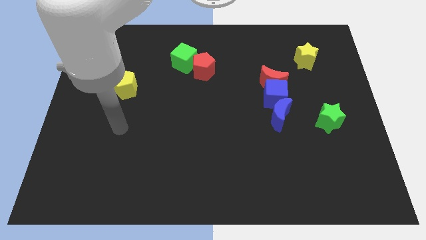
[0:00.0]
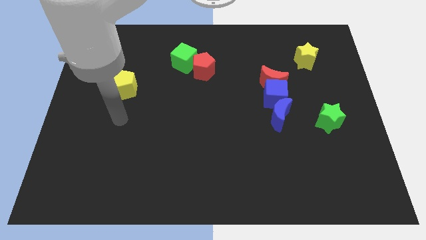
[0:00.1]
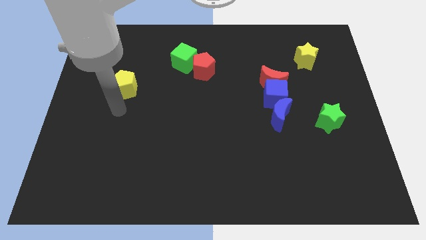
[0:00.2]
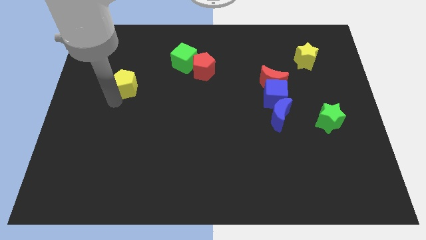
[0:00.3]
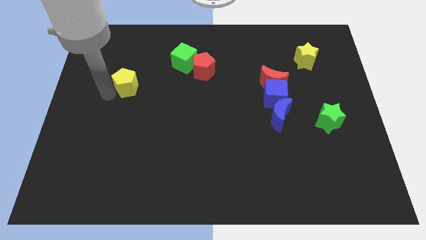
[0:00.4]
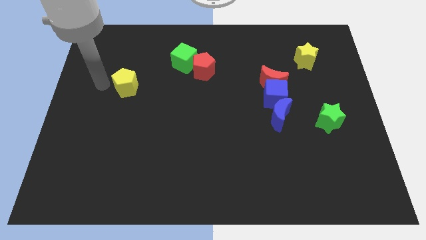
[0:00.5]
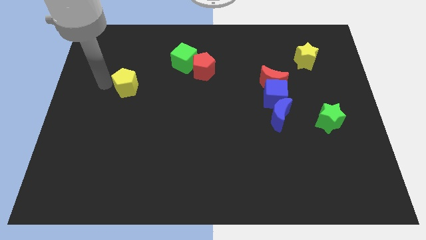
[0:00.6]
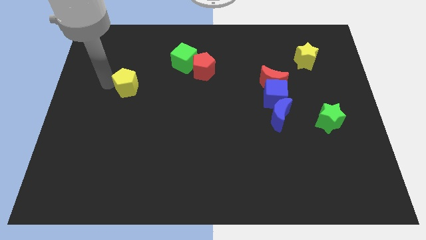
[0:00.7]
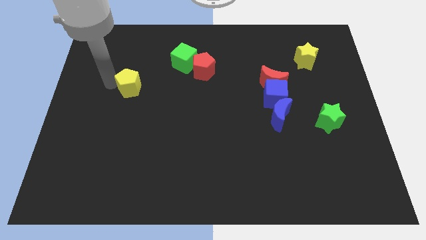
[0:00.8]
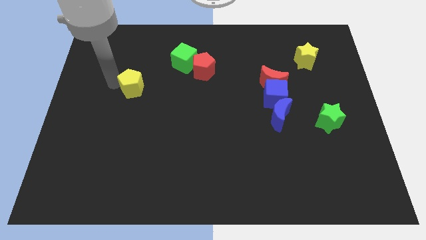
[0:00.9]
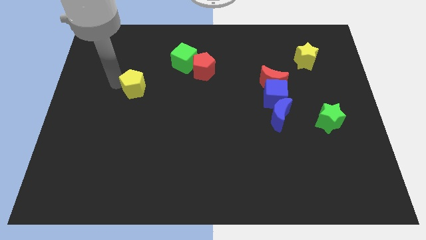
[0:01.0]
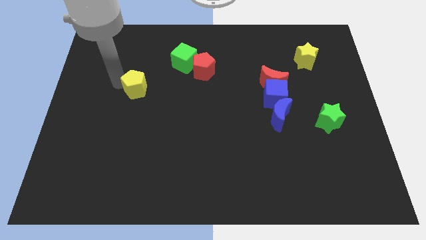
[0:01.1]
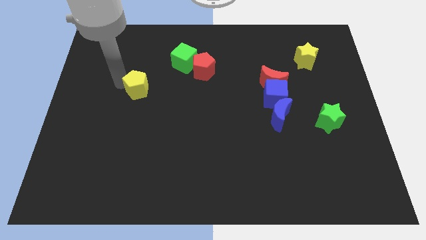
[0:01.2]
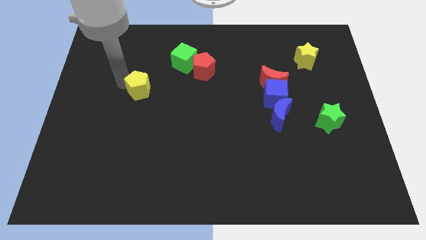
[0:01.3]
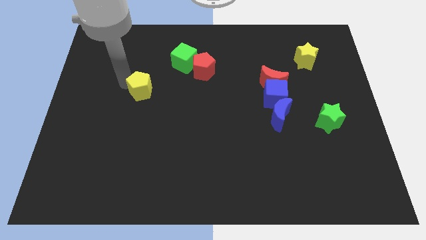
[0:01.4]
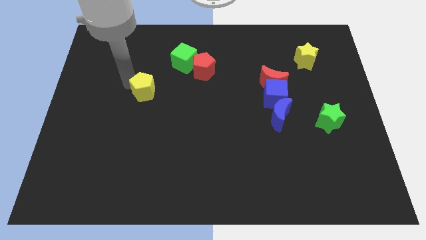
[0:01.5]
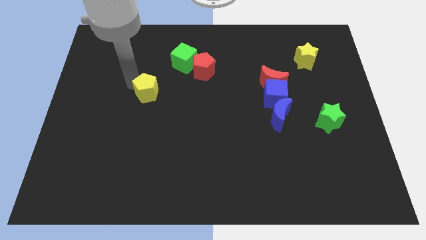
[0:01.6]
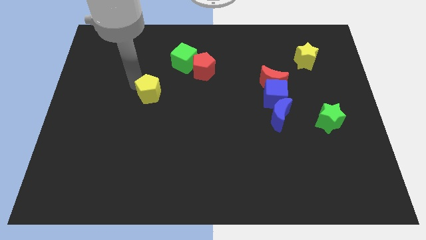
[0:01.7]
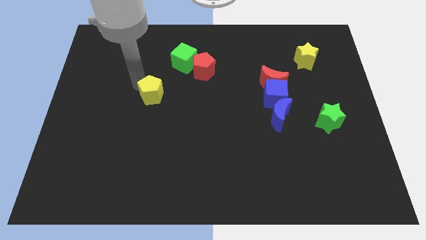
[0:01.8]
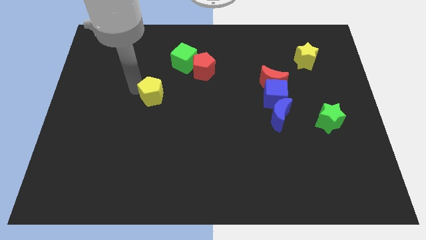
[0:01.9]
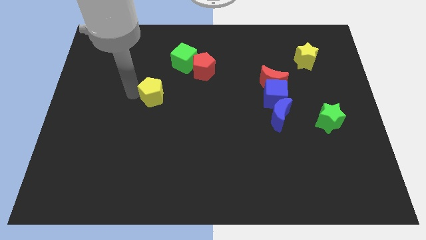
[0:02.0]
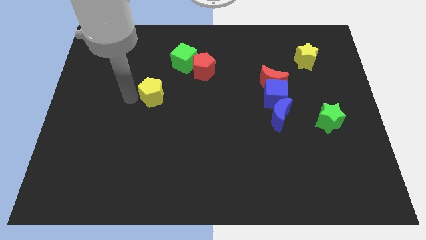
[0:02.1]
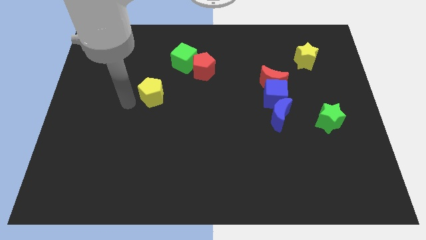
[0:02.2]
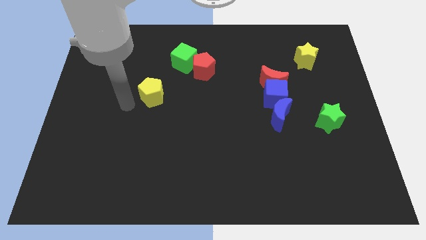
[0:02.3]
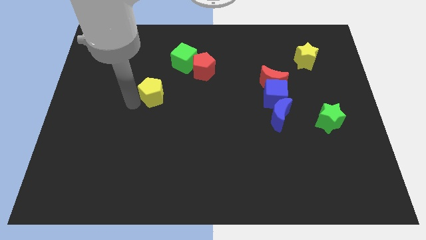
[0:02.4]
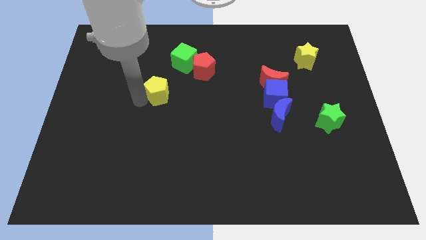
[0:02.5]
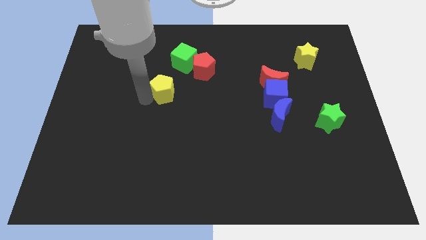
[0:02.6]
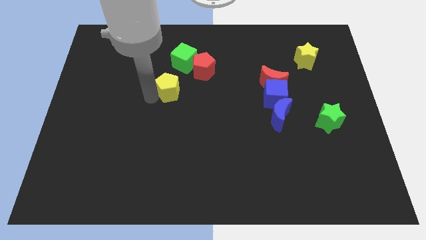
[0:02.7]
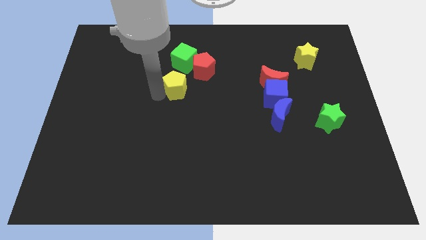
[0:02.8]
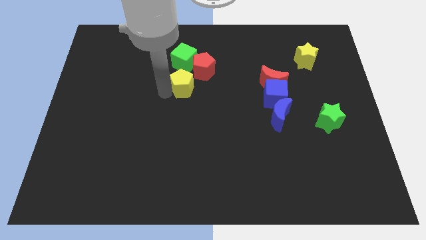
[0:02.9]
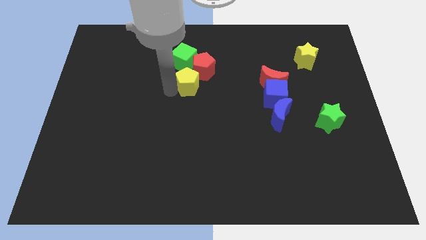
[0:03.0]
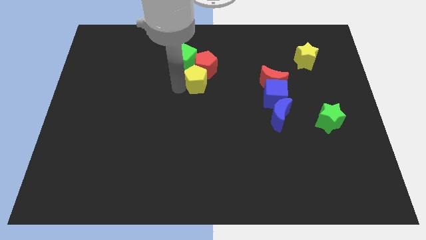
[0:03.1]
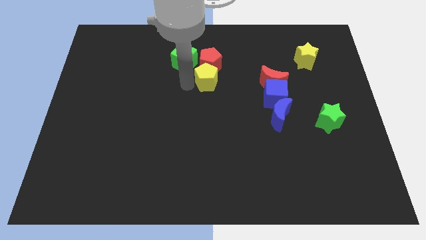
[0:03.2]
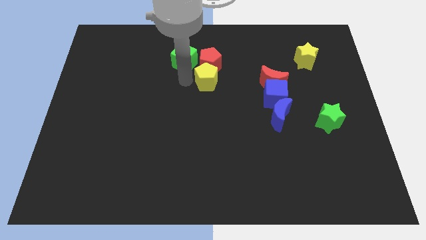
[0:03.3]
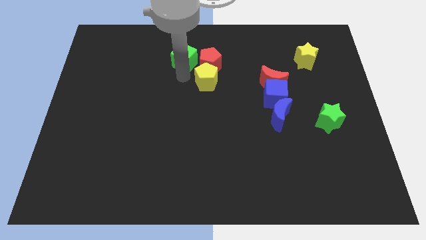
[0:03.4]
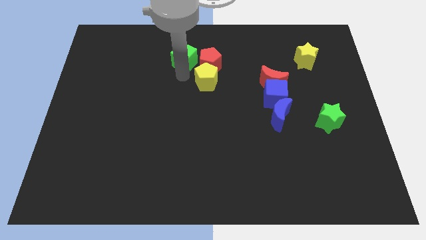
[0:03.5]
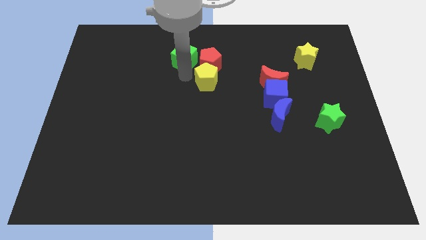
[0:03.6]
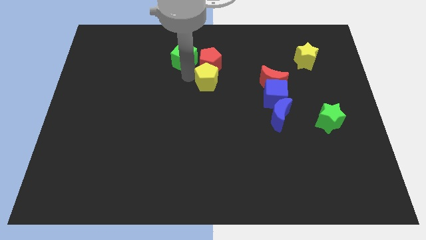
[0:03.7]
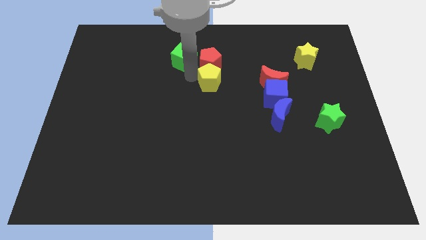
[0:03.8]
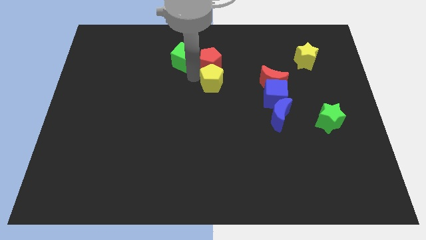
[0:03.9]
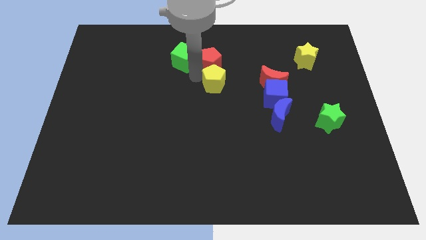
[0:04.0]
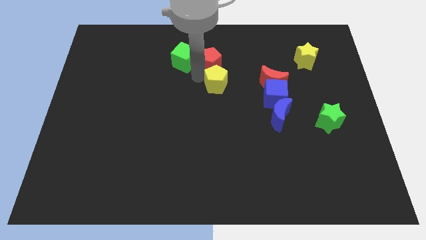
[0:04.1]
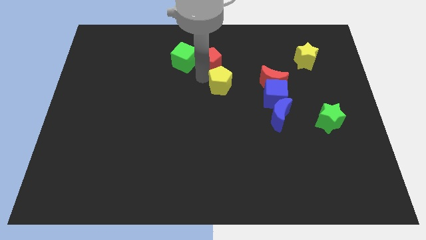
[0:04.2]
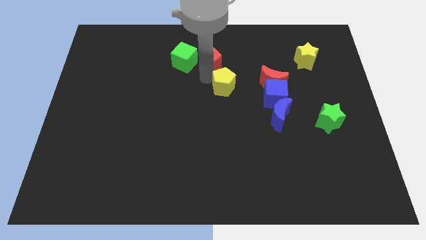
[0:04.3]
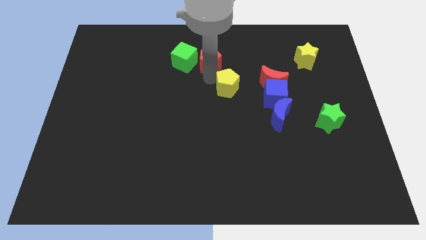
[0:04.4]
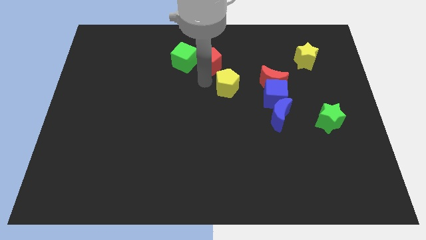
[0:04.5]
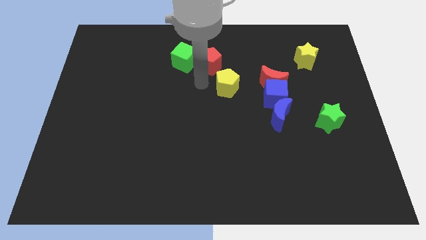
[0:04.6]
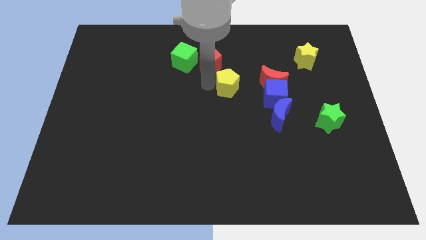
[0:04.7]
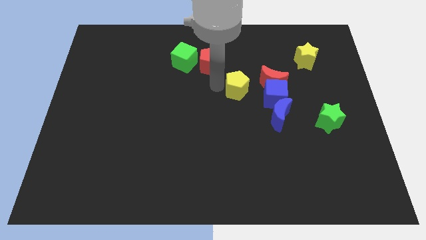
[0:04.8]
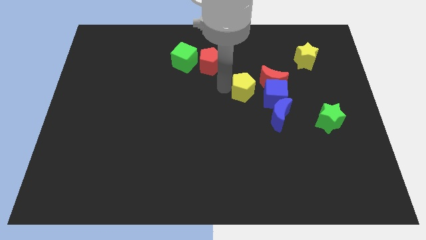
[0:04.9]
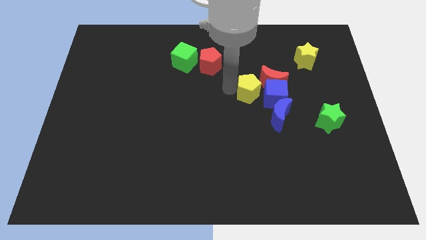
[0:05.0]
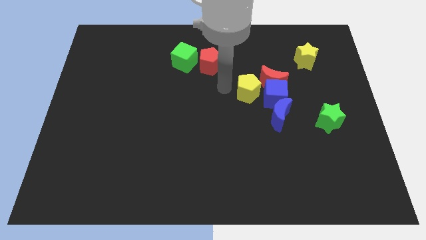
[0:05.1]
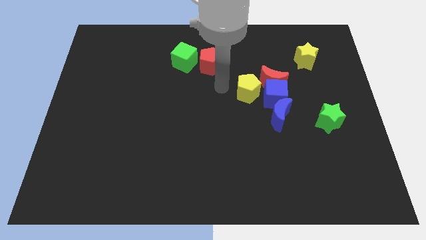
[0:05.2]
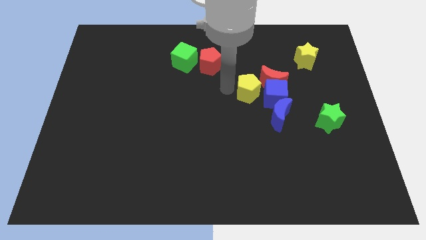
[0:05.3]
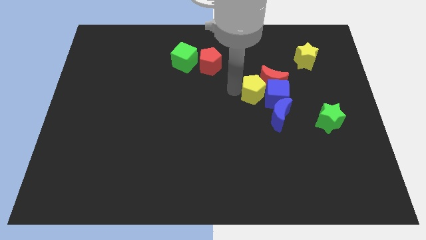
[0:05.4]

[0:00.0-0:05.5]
put the yellow pentagon towards the blue cube

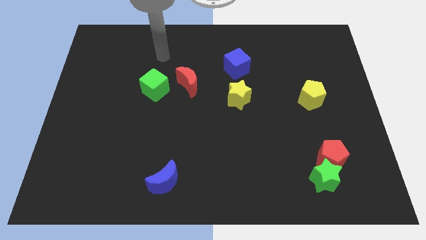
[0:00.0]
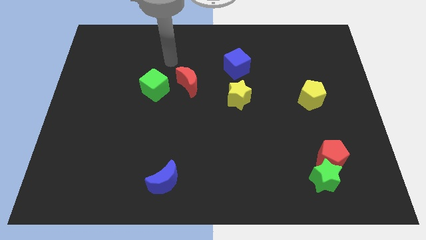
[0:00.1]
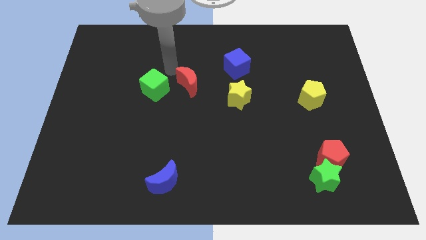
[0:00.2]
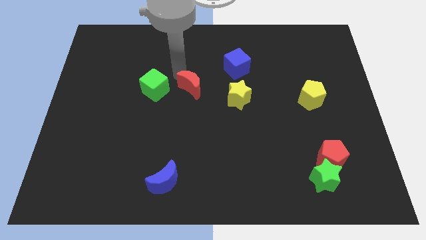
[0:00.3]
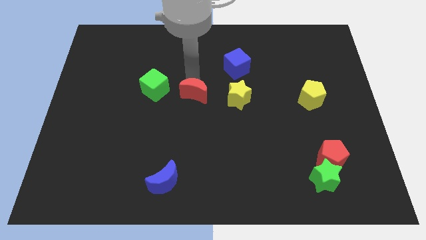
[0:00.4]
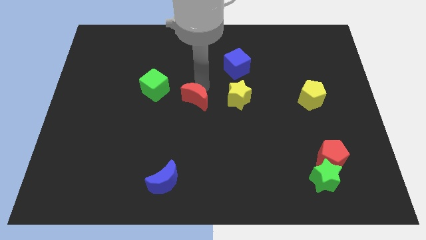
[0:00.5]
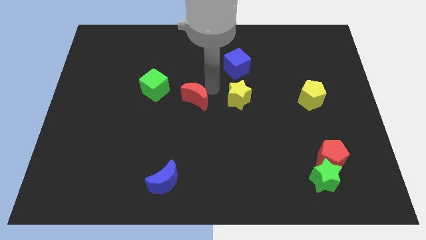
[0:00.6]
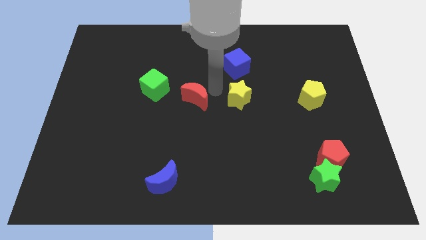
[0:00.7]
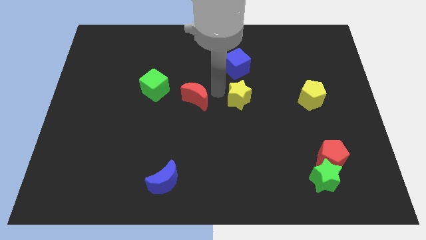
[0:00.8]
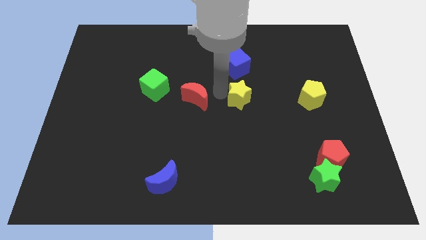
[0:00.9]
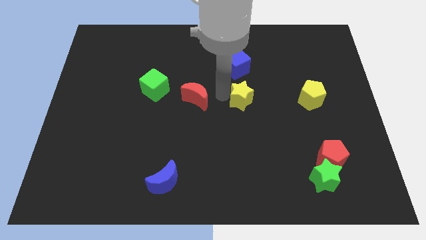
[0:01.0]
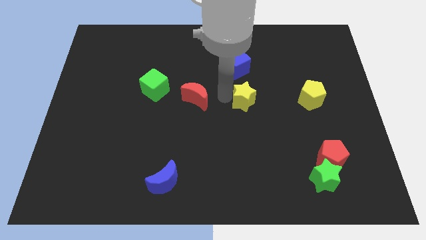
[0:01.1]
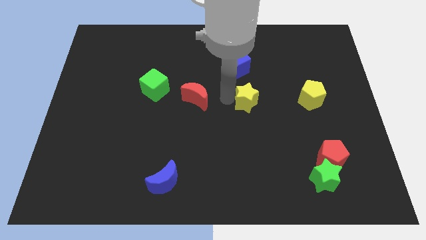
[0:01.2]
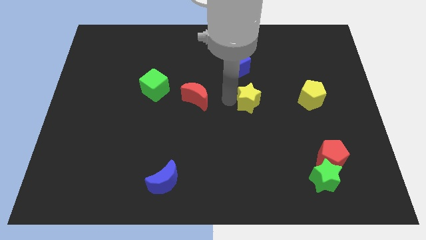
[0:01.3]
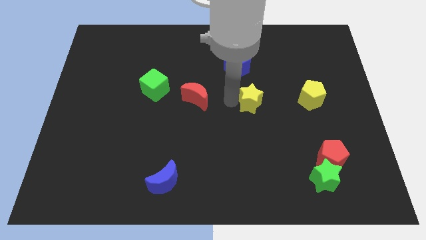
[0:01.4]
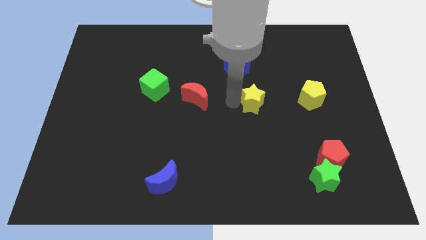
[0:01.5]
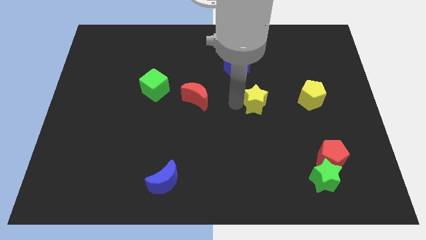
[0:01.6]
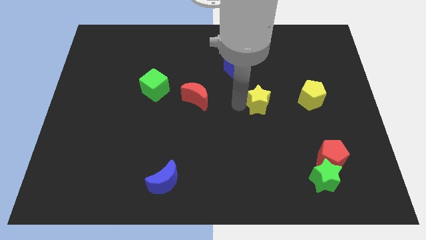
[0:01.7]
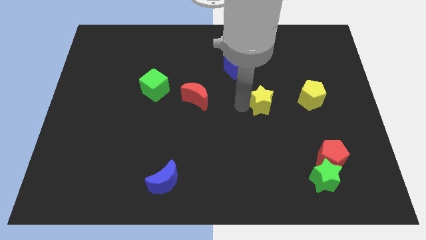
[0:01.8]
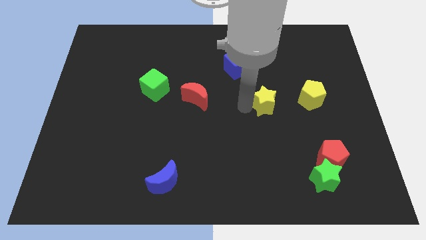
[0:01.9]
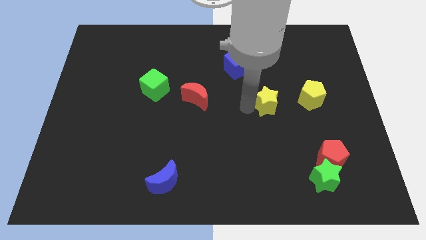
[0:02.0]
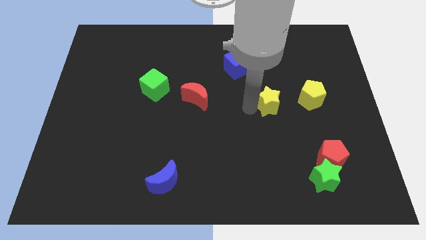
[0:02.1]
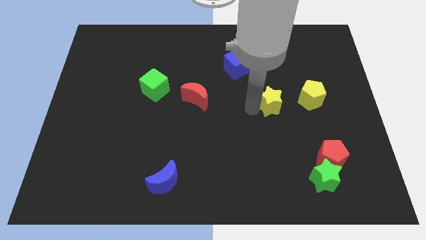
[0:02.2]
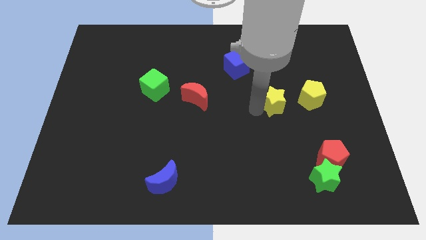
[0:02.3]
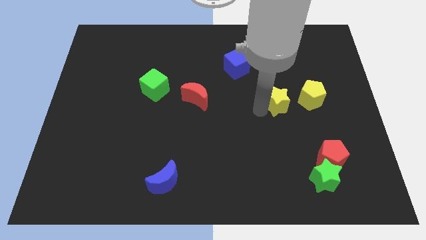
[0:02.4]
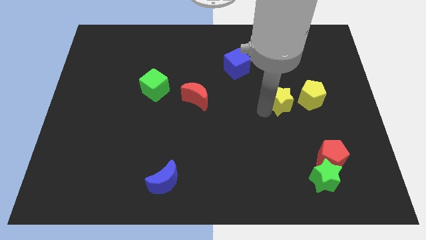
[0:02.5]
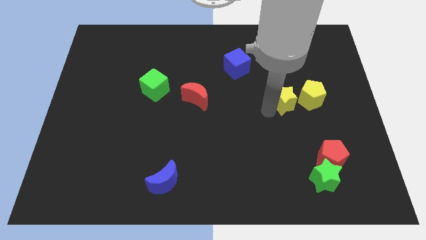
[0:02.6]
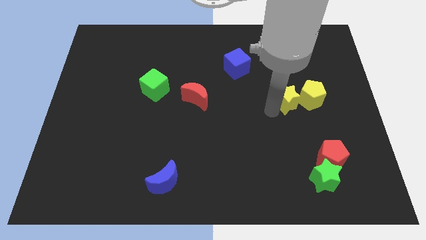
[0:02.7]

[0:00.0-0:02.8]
put the yellow star next to the yellow pentagon
